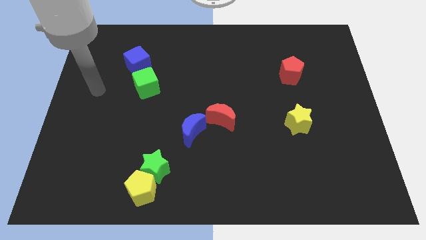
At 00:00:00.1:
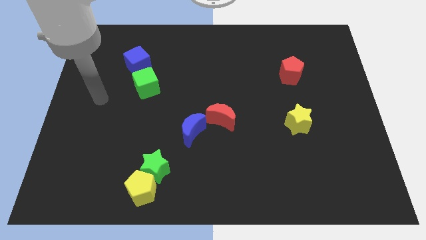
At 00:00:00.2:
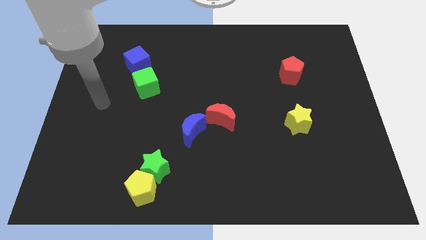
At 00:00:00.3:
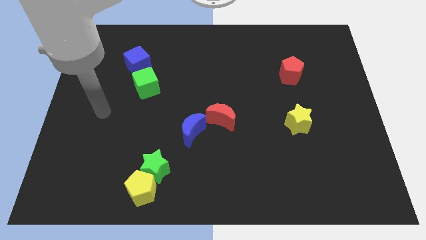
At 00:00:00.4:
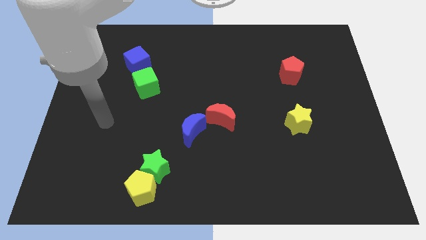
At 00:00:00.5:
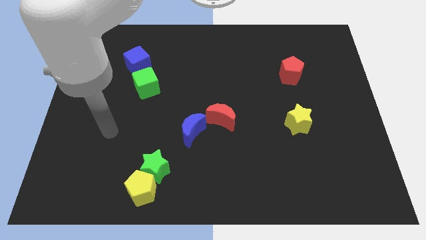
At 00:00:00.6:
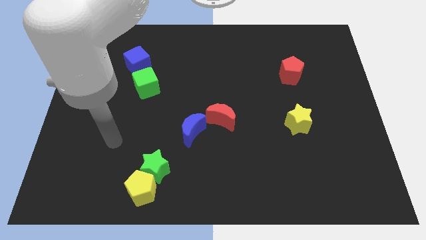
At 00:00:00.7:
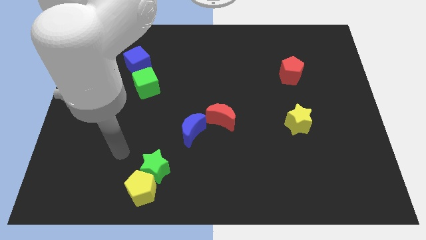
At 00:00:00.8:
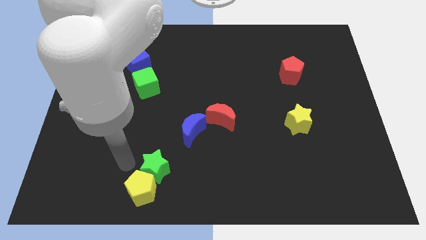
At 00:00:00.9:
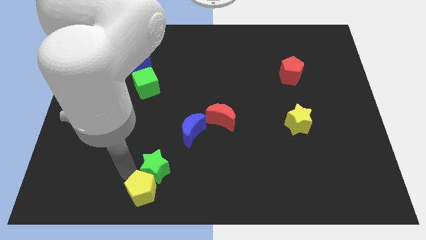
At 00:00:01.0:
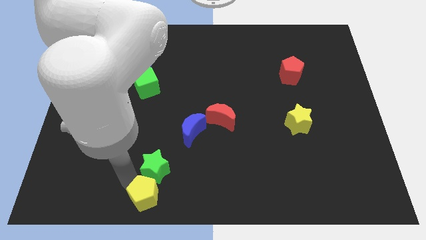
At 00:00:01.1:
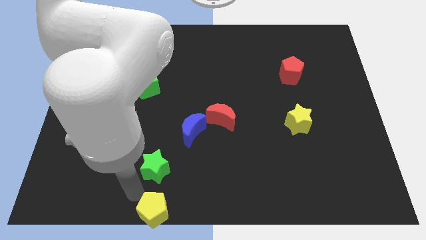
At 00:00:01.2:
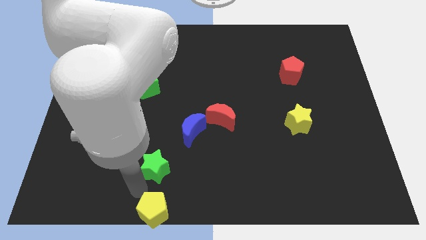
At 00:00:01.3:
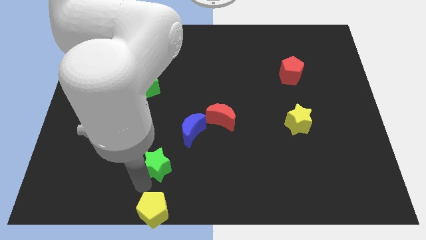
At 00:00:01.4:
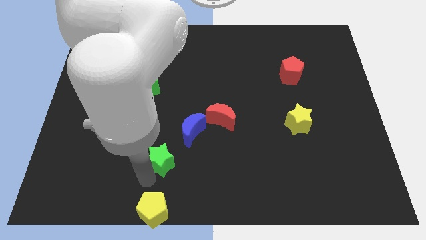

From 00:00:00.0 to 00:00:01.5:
separate the green star from the yellow pentagon

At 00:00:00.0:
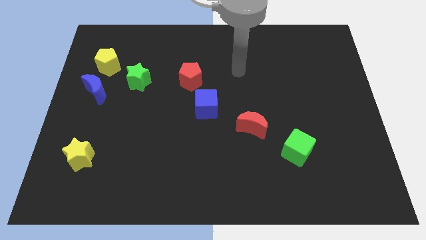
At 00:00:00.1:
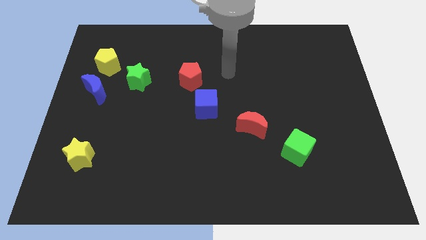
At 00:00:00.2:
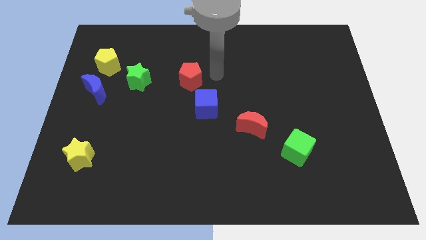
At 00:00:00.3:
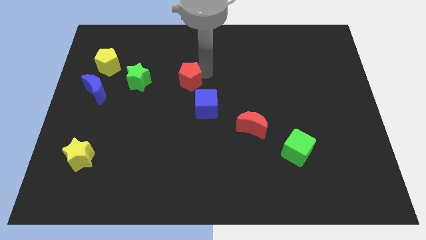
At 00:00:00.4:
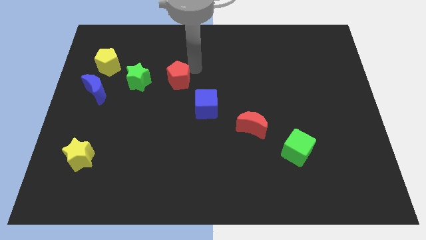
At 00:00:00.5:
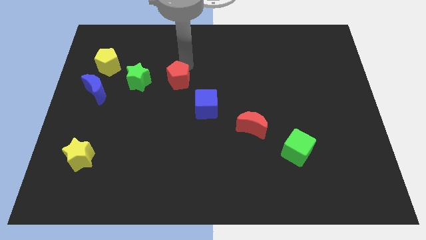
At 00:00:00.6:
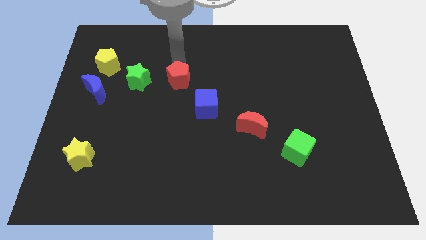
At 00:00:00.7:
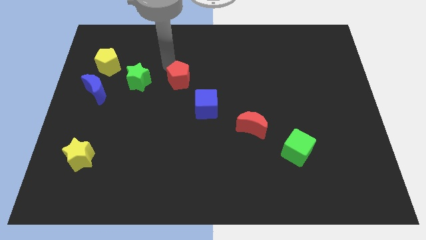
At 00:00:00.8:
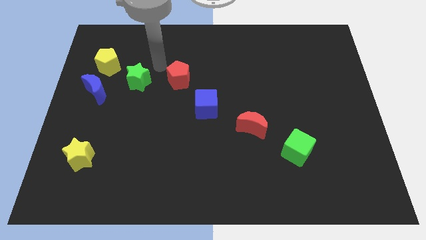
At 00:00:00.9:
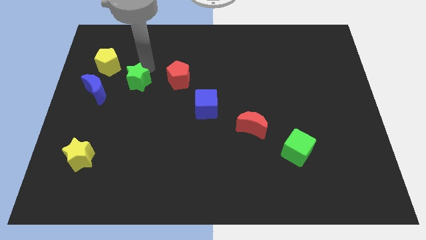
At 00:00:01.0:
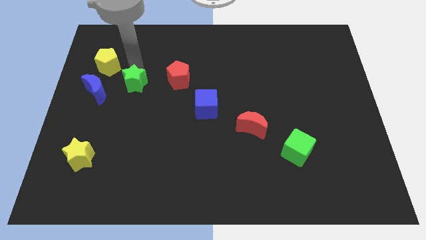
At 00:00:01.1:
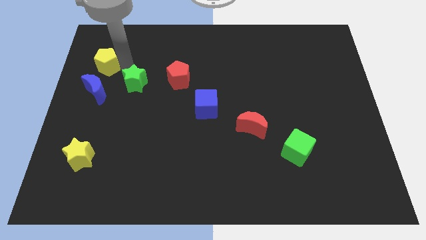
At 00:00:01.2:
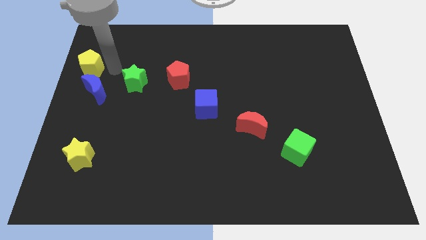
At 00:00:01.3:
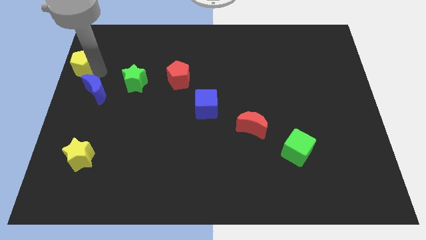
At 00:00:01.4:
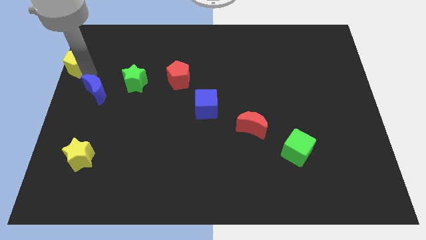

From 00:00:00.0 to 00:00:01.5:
move the blue moon away from the yellow pentagon

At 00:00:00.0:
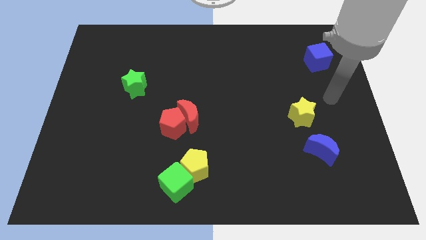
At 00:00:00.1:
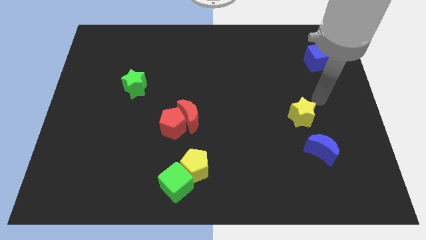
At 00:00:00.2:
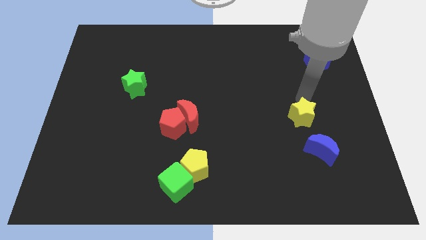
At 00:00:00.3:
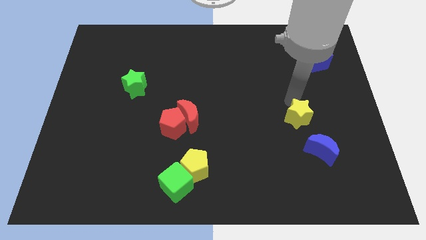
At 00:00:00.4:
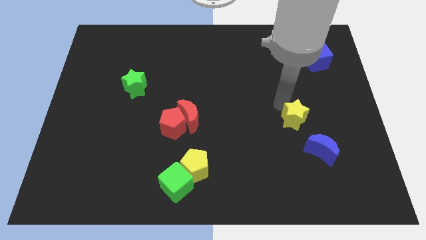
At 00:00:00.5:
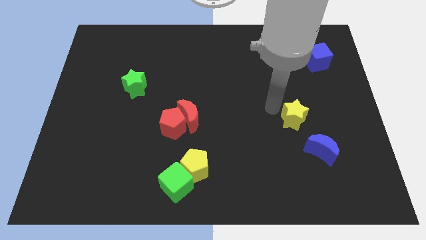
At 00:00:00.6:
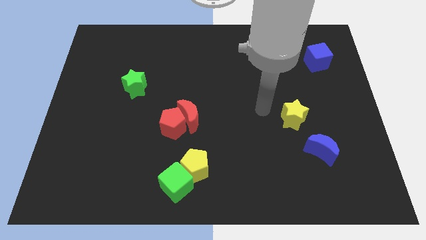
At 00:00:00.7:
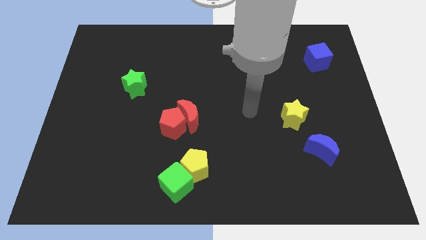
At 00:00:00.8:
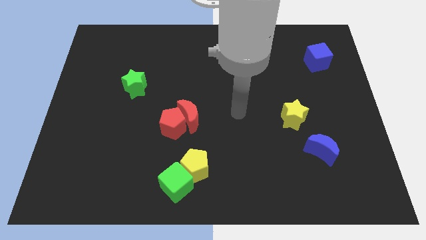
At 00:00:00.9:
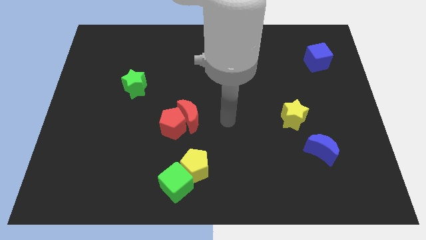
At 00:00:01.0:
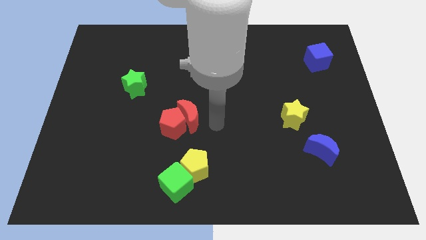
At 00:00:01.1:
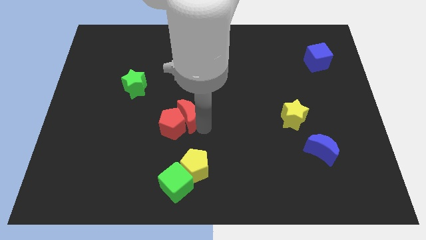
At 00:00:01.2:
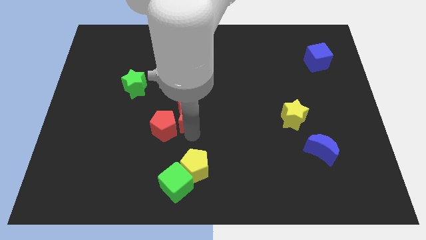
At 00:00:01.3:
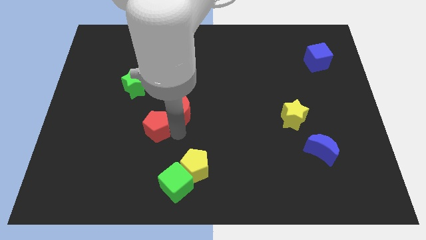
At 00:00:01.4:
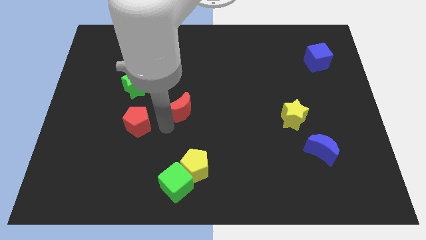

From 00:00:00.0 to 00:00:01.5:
separate the red moon from the red pentagon

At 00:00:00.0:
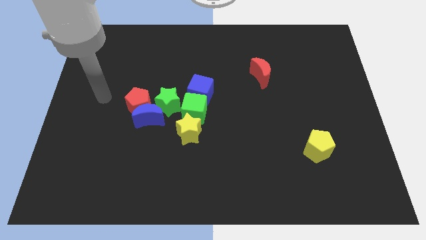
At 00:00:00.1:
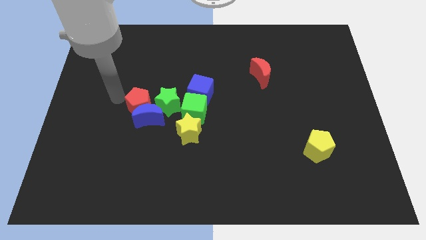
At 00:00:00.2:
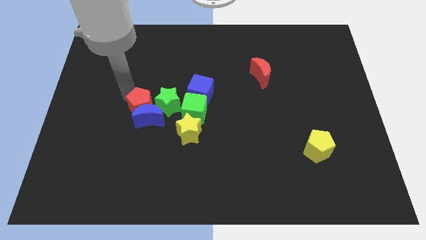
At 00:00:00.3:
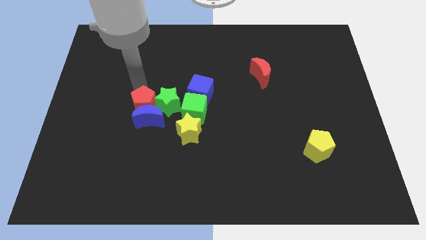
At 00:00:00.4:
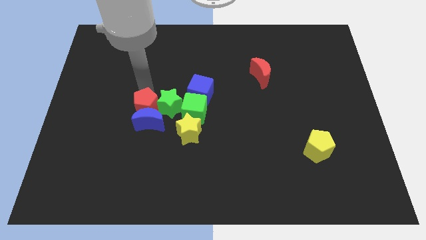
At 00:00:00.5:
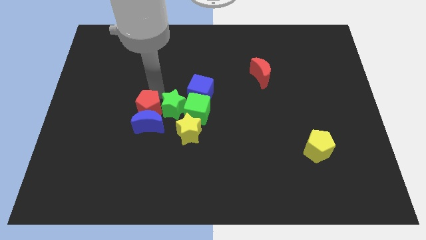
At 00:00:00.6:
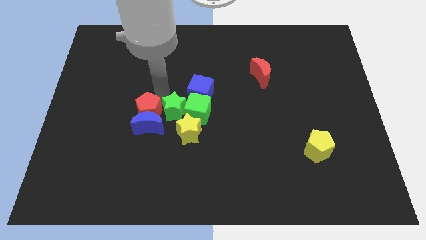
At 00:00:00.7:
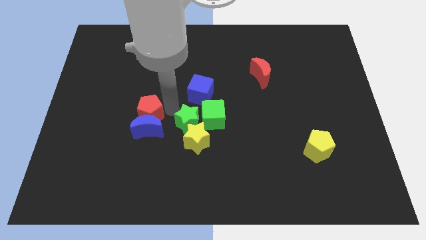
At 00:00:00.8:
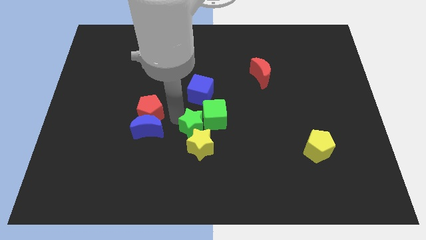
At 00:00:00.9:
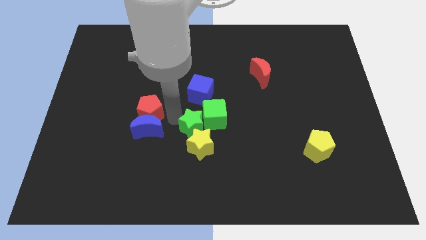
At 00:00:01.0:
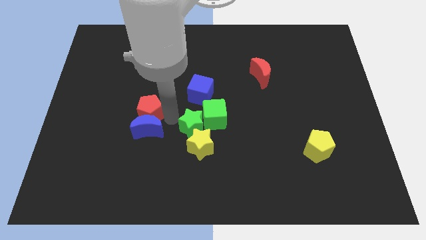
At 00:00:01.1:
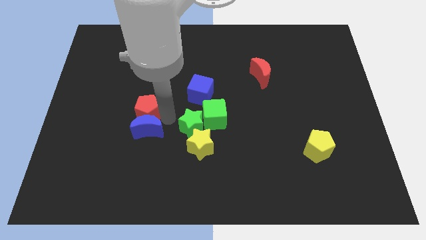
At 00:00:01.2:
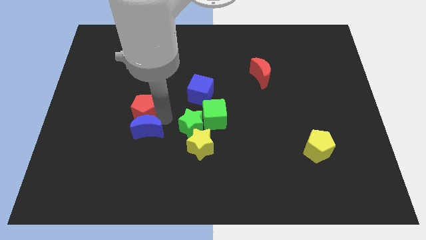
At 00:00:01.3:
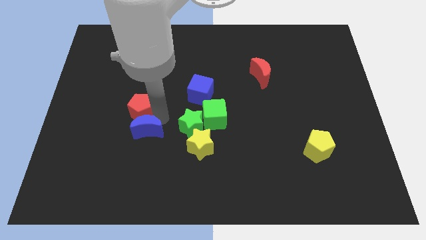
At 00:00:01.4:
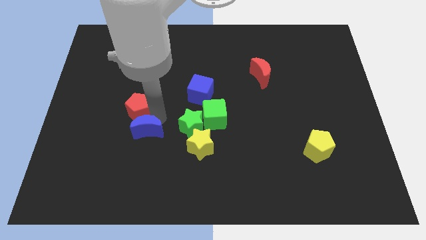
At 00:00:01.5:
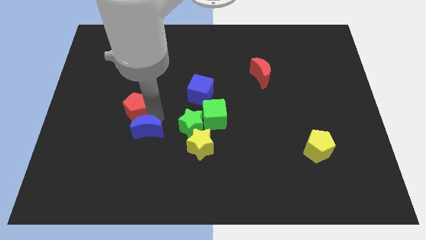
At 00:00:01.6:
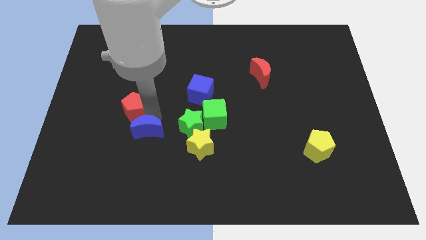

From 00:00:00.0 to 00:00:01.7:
separate the red pentagon from the blue moon and green star

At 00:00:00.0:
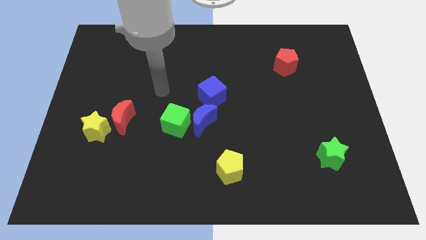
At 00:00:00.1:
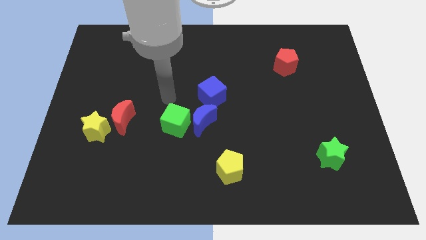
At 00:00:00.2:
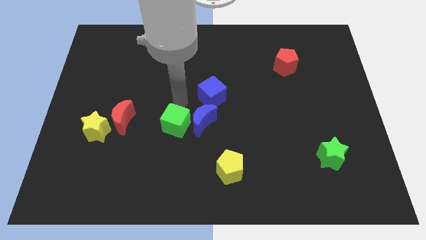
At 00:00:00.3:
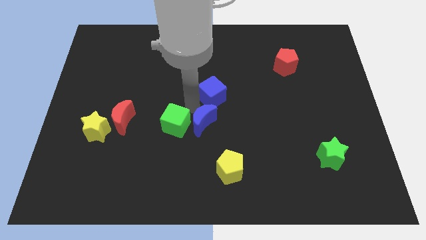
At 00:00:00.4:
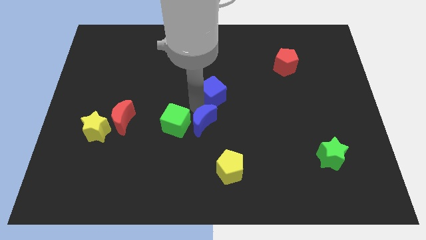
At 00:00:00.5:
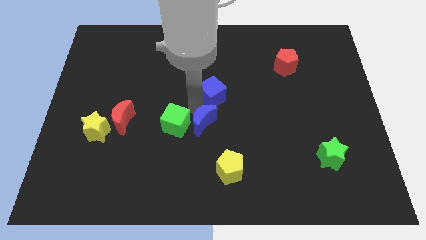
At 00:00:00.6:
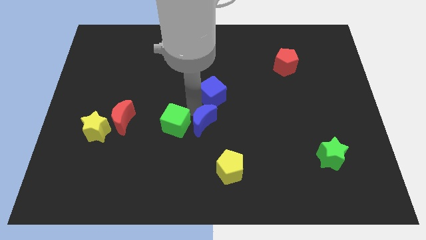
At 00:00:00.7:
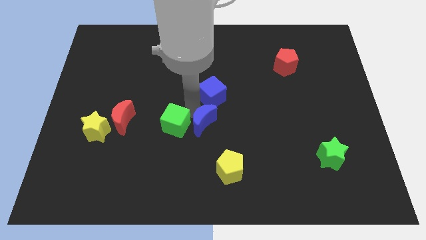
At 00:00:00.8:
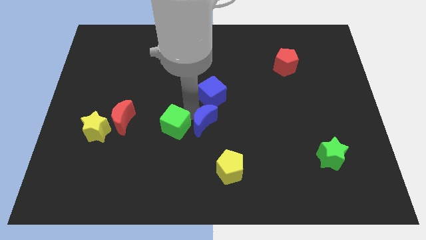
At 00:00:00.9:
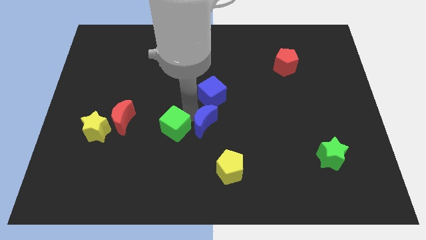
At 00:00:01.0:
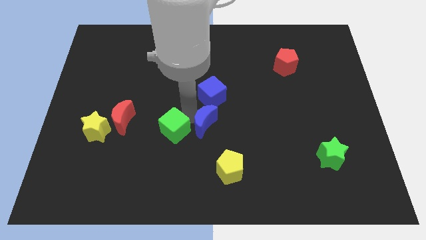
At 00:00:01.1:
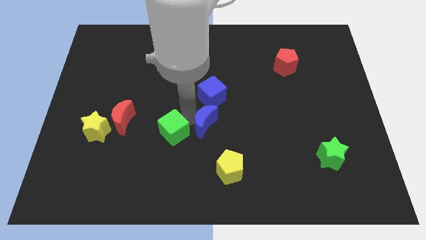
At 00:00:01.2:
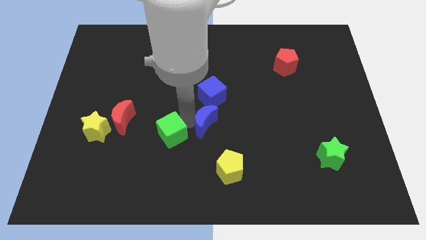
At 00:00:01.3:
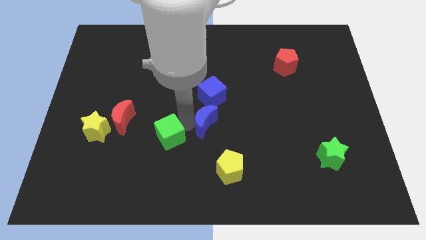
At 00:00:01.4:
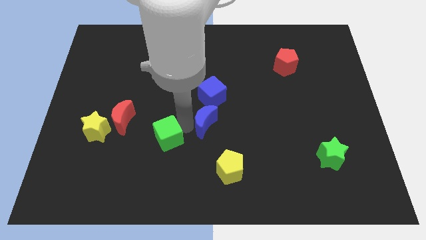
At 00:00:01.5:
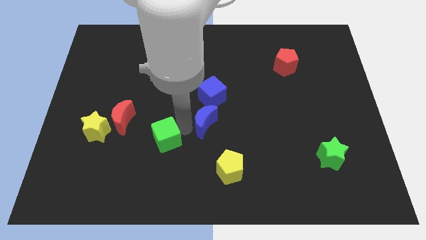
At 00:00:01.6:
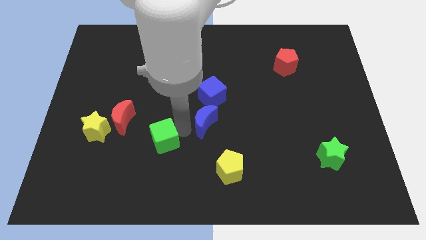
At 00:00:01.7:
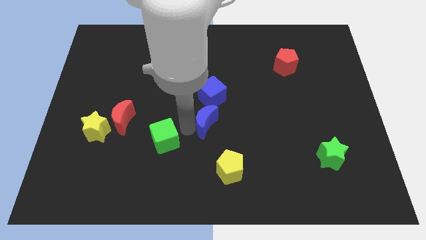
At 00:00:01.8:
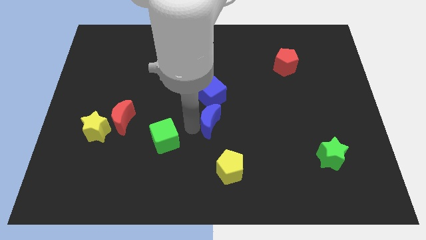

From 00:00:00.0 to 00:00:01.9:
move the green cube away from the blue moon

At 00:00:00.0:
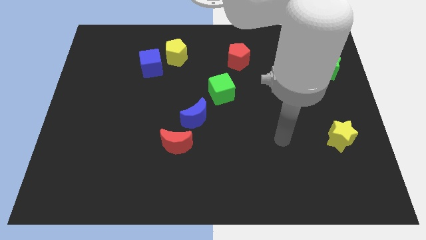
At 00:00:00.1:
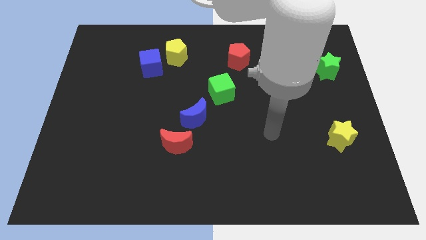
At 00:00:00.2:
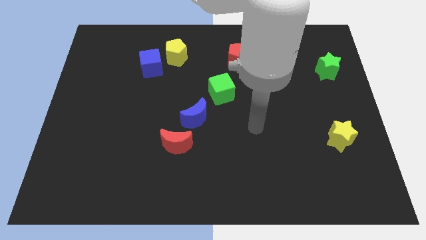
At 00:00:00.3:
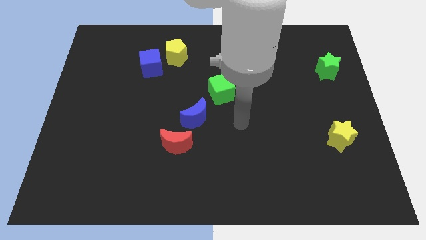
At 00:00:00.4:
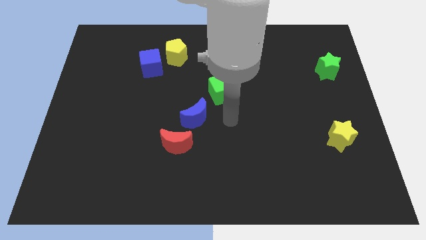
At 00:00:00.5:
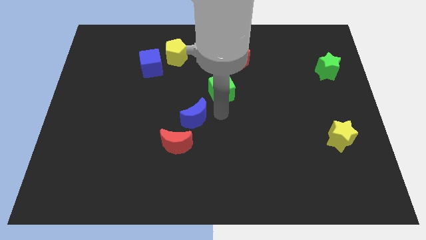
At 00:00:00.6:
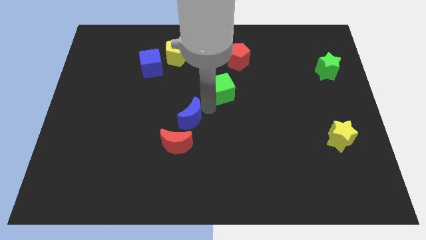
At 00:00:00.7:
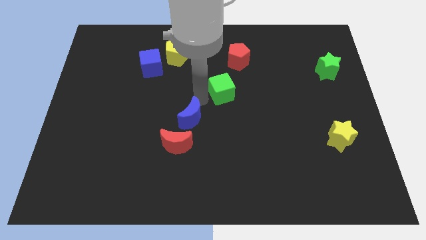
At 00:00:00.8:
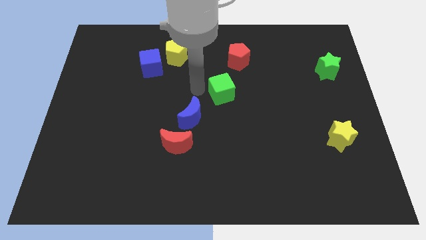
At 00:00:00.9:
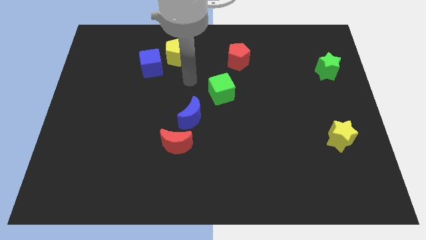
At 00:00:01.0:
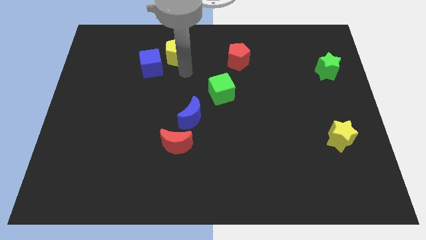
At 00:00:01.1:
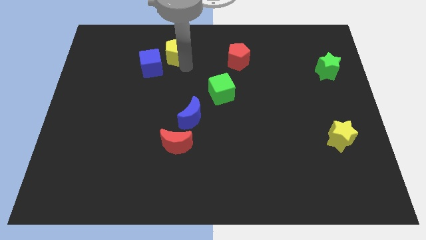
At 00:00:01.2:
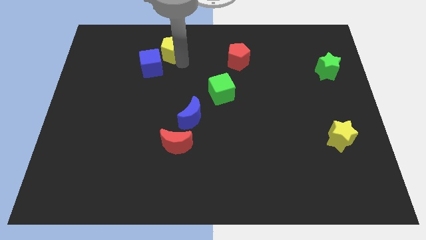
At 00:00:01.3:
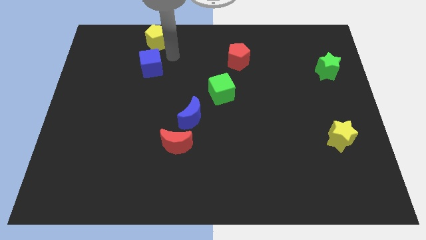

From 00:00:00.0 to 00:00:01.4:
separate the blue cube from the yellow pentagon
